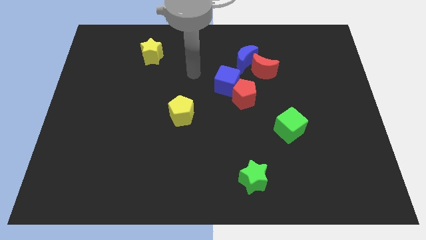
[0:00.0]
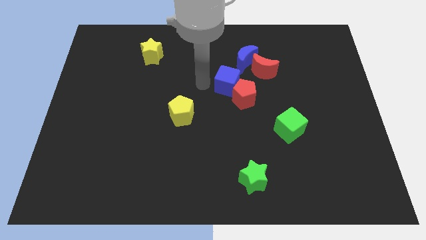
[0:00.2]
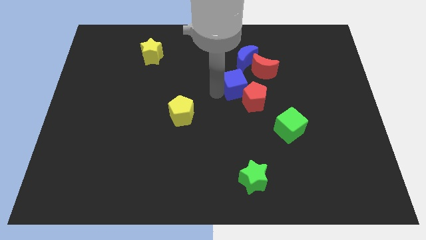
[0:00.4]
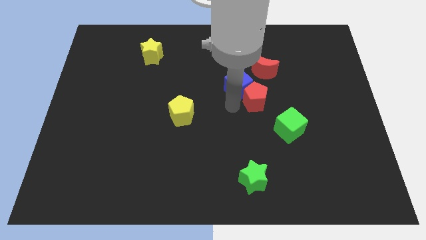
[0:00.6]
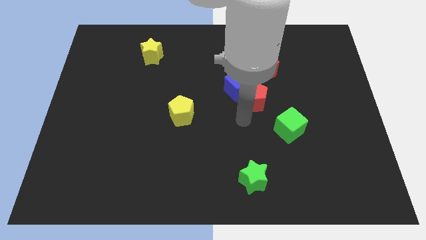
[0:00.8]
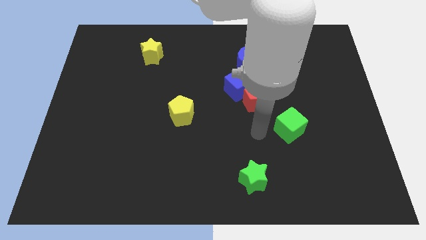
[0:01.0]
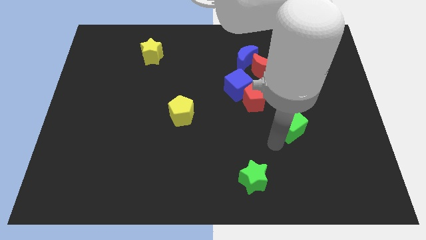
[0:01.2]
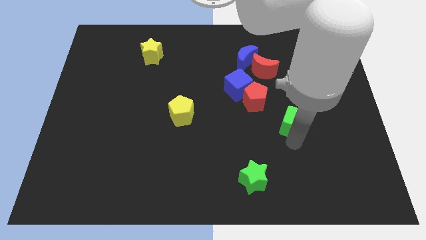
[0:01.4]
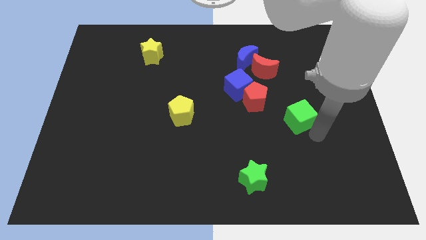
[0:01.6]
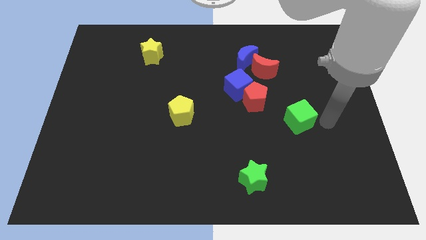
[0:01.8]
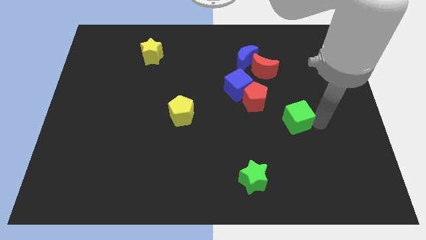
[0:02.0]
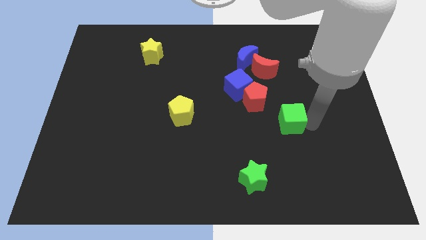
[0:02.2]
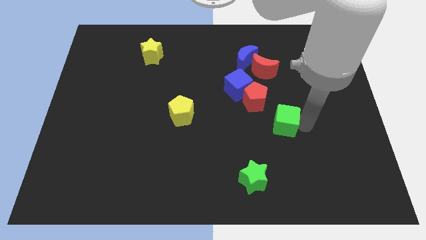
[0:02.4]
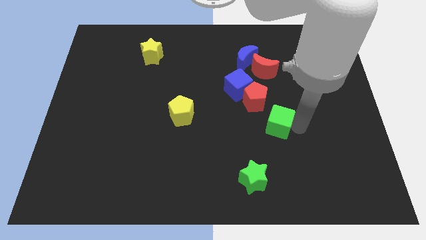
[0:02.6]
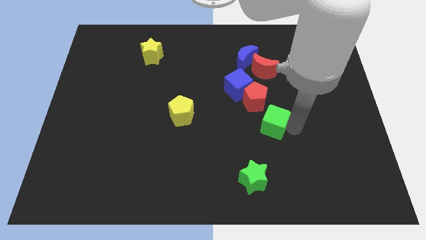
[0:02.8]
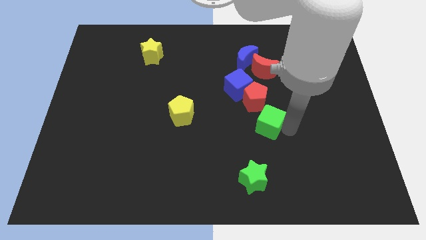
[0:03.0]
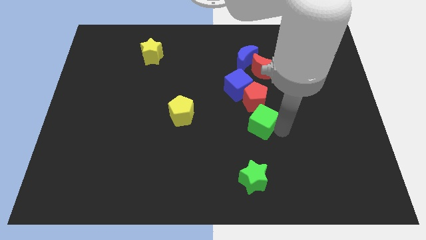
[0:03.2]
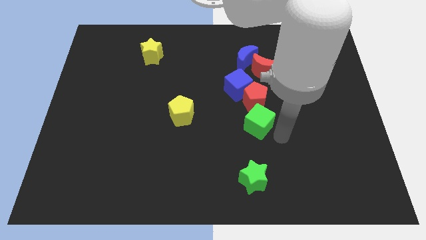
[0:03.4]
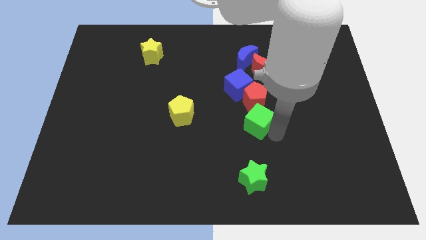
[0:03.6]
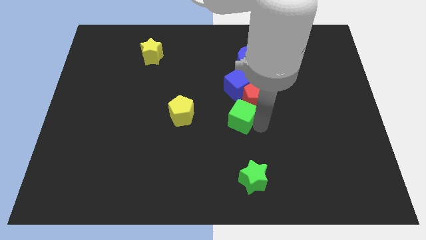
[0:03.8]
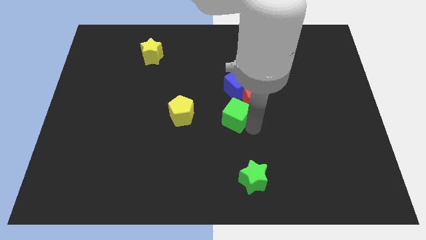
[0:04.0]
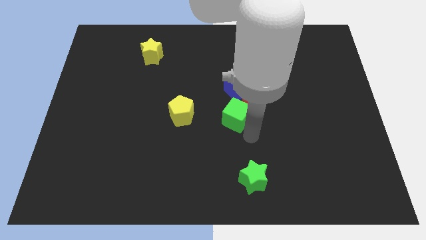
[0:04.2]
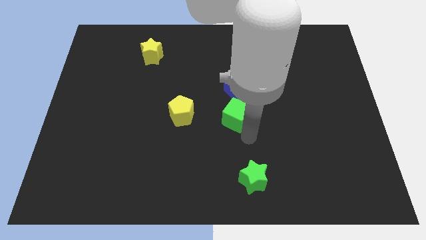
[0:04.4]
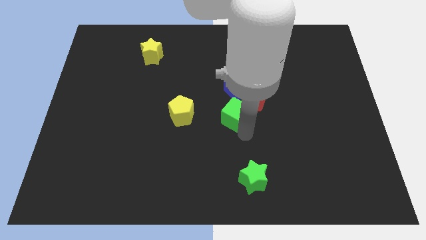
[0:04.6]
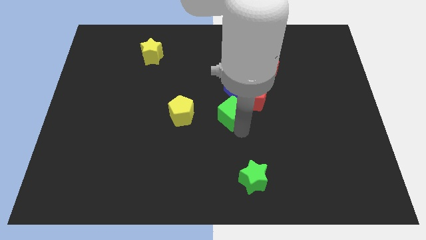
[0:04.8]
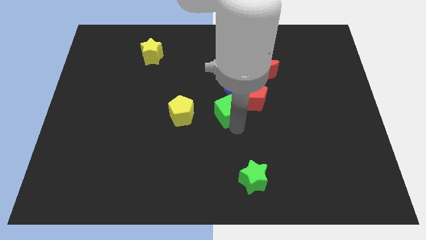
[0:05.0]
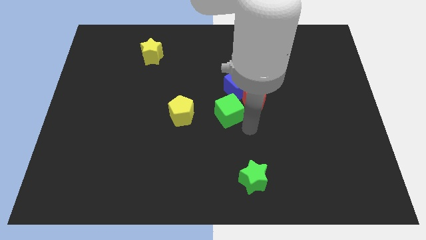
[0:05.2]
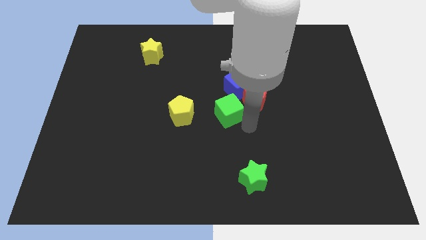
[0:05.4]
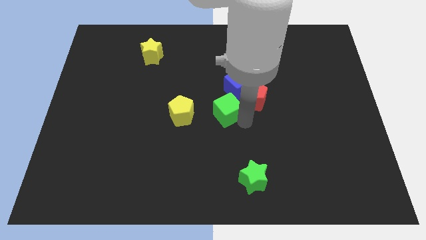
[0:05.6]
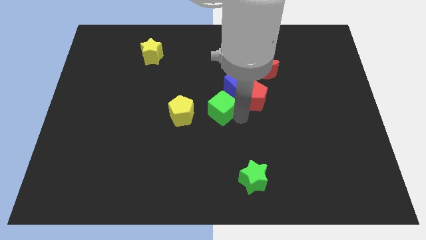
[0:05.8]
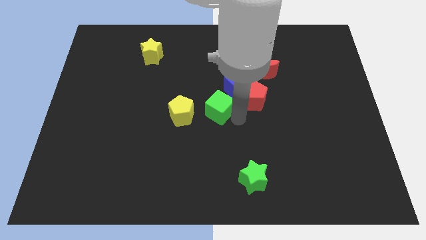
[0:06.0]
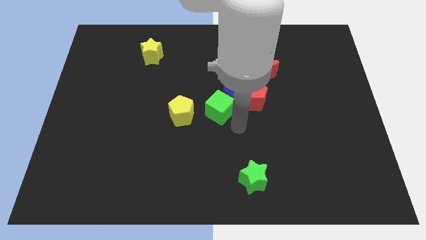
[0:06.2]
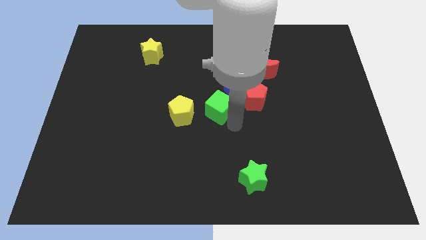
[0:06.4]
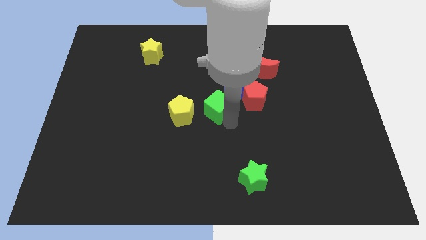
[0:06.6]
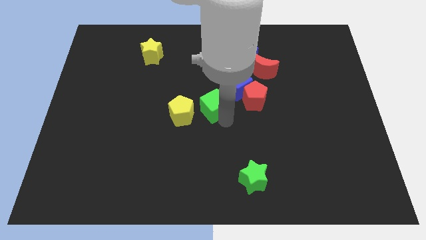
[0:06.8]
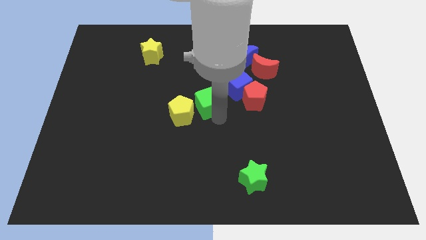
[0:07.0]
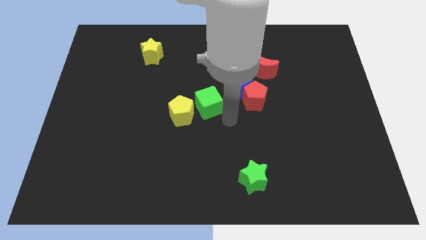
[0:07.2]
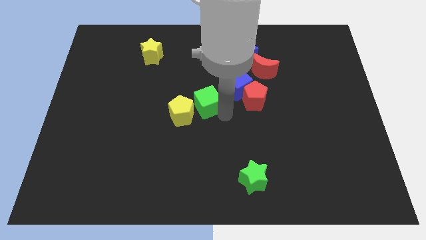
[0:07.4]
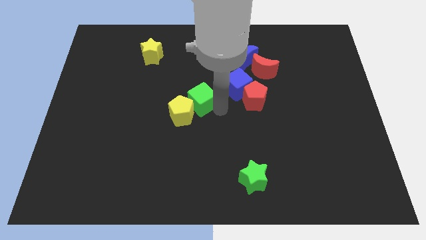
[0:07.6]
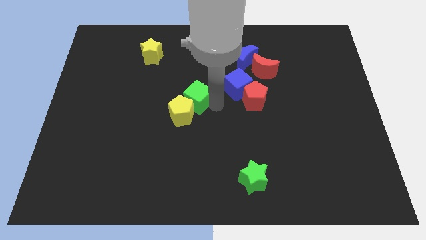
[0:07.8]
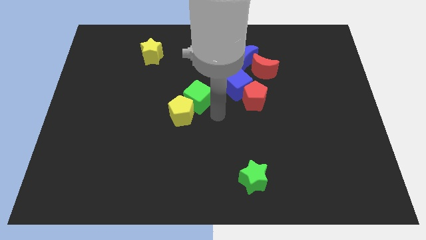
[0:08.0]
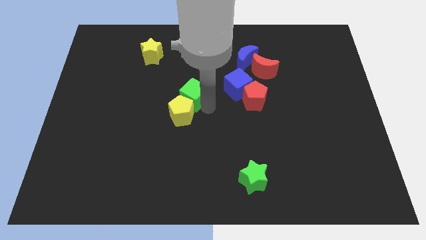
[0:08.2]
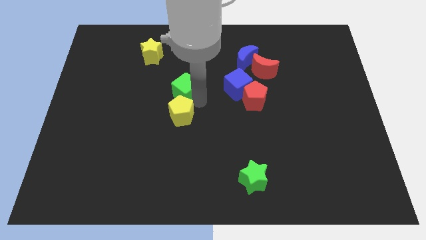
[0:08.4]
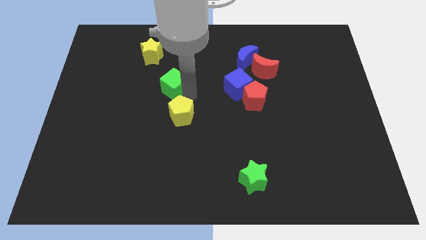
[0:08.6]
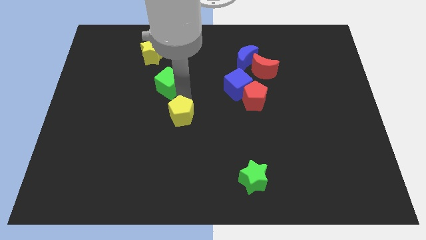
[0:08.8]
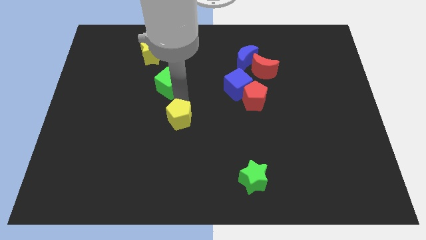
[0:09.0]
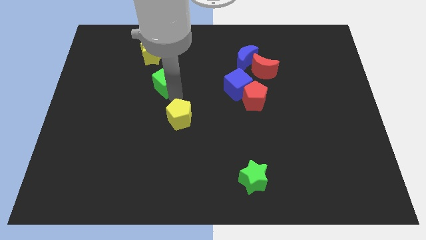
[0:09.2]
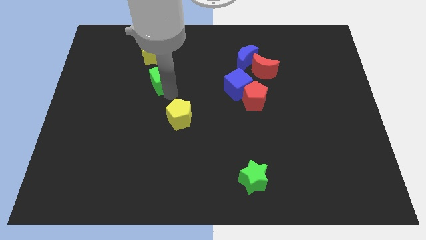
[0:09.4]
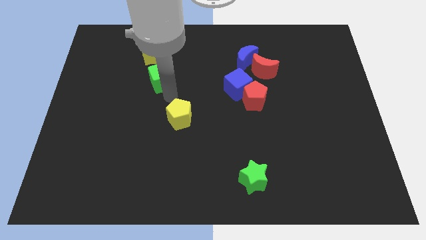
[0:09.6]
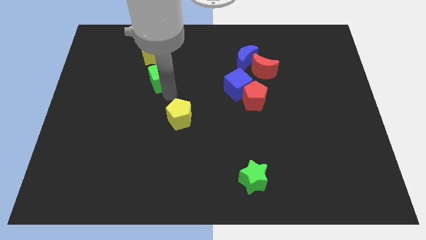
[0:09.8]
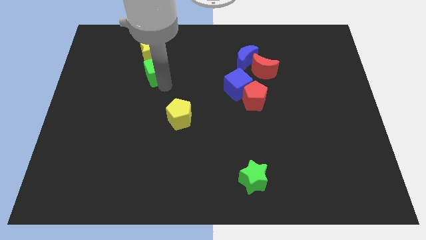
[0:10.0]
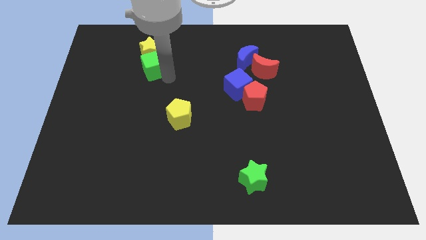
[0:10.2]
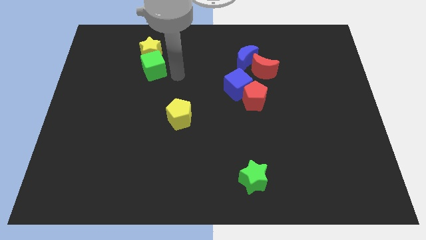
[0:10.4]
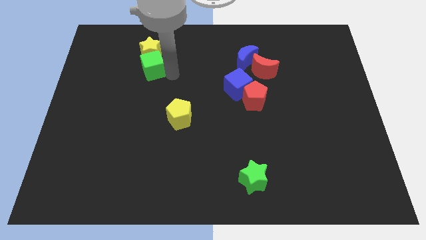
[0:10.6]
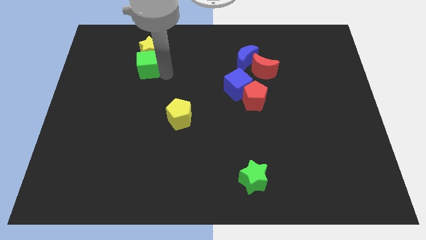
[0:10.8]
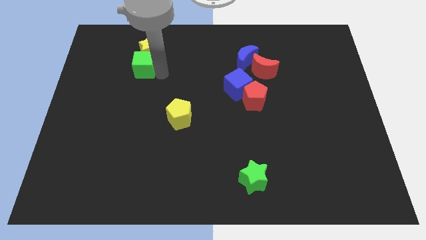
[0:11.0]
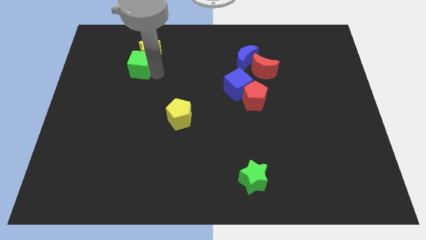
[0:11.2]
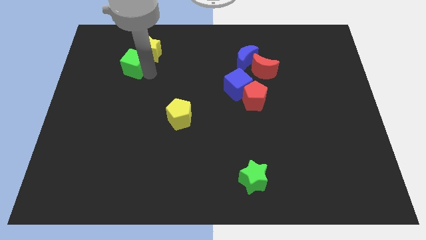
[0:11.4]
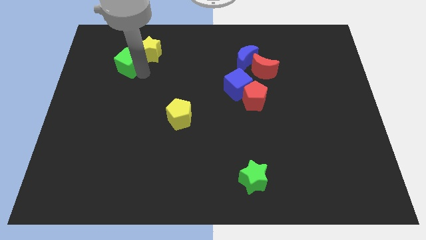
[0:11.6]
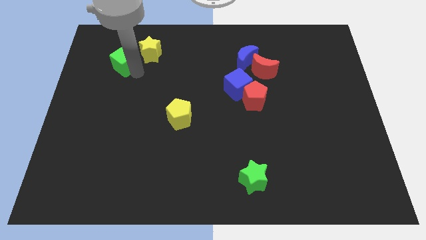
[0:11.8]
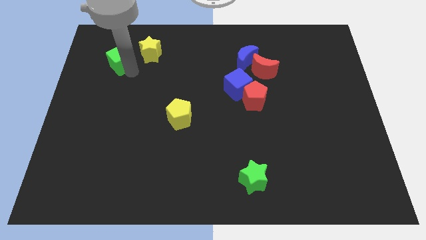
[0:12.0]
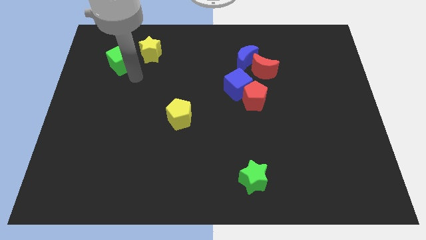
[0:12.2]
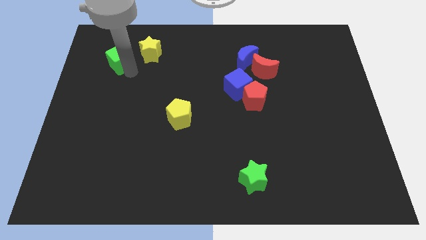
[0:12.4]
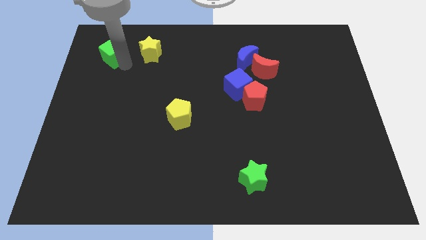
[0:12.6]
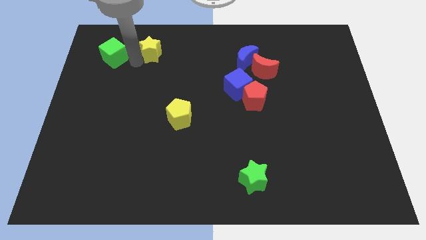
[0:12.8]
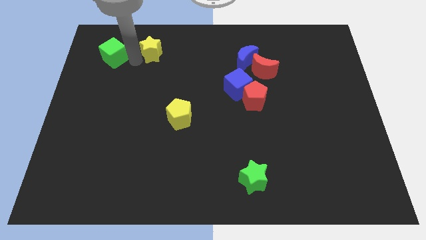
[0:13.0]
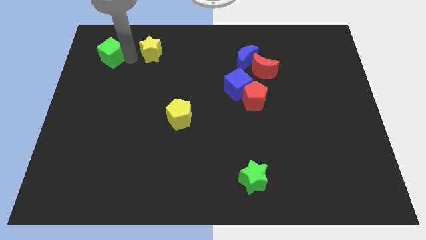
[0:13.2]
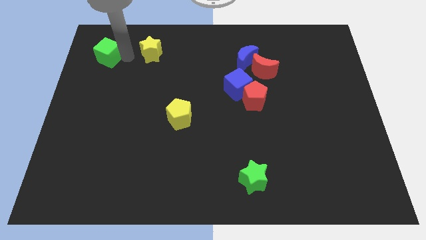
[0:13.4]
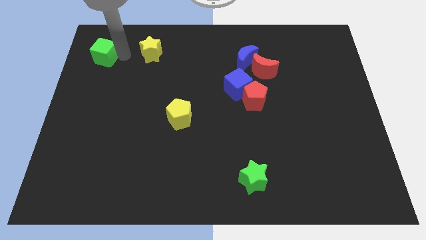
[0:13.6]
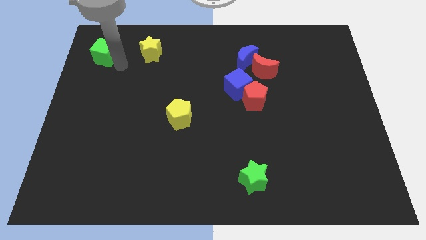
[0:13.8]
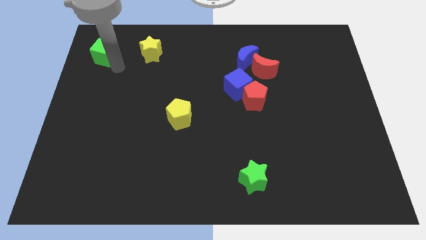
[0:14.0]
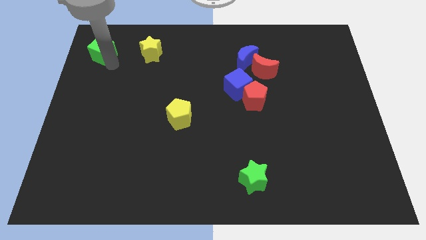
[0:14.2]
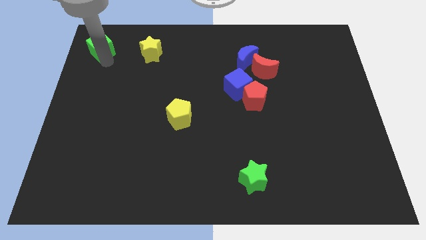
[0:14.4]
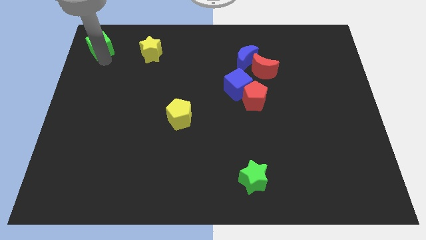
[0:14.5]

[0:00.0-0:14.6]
move the green cube to the top left
